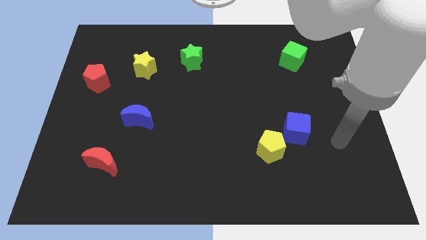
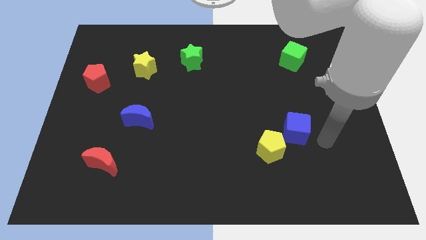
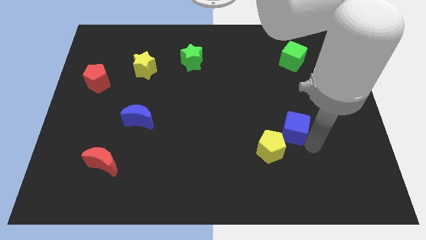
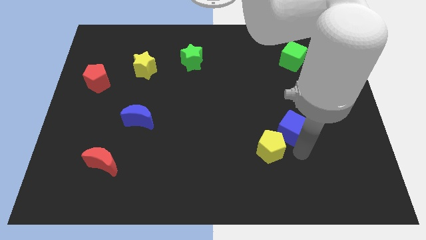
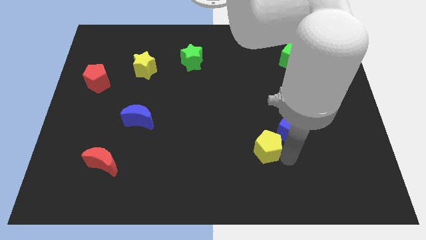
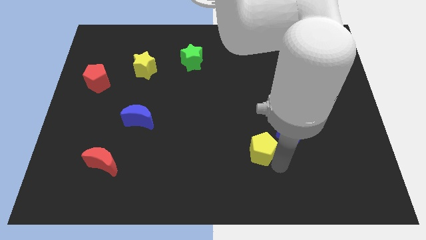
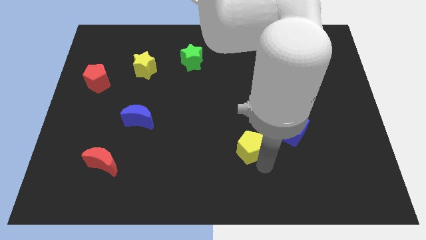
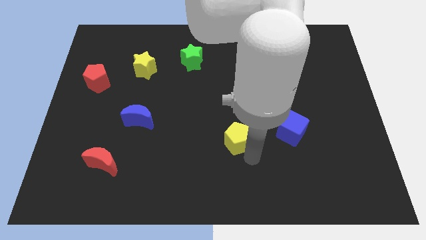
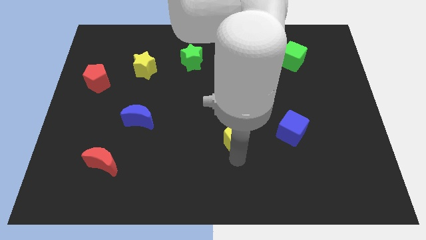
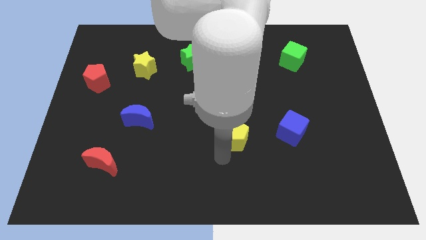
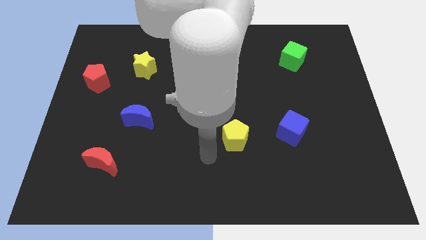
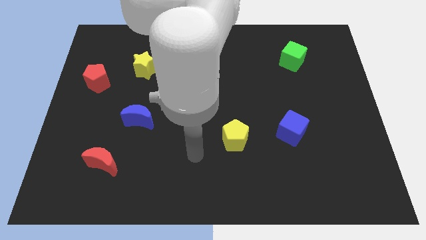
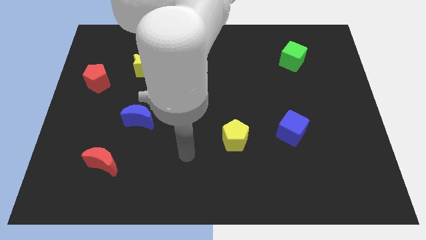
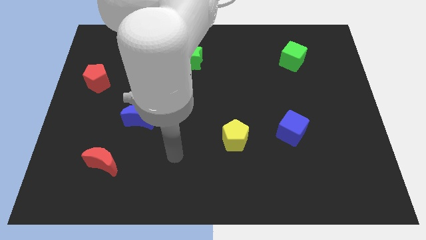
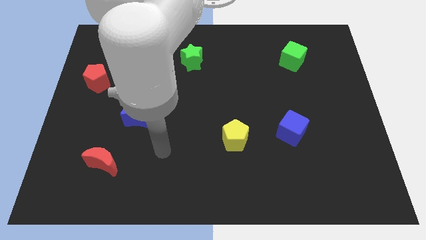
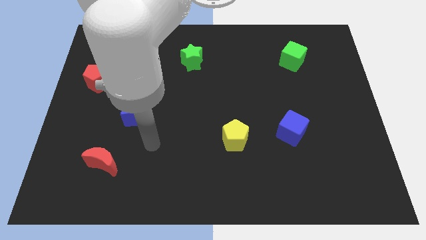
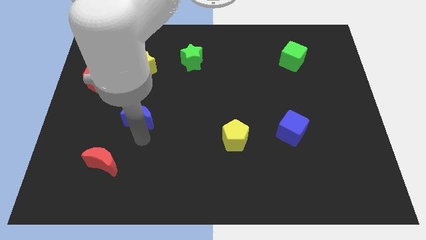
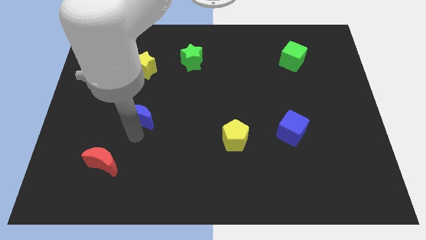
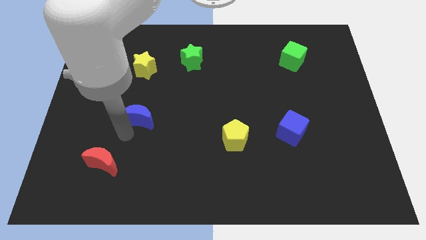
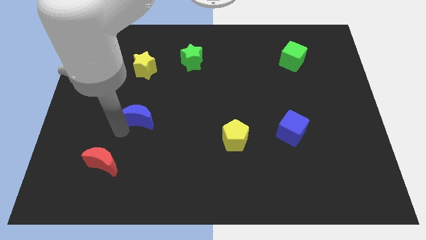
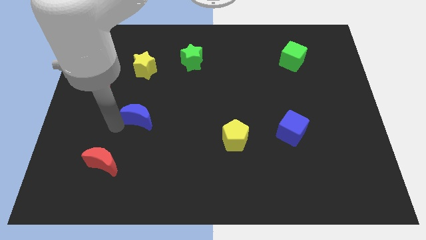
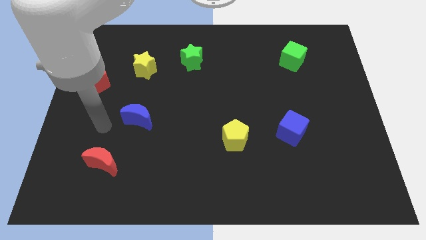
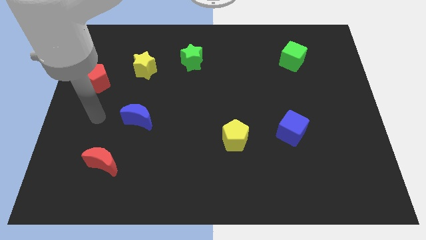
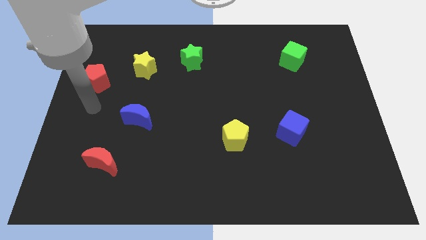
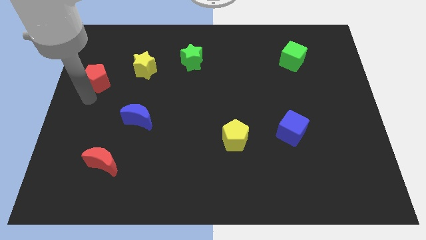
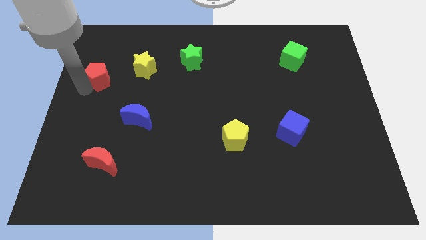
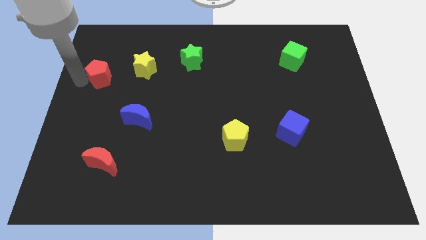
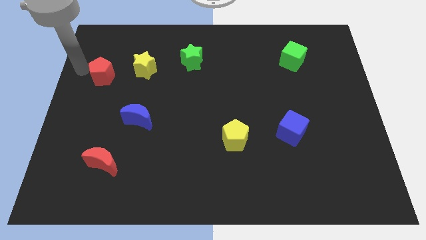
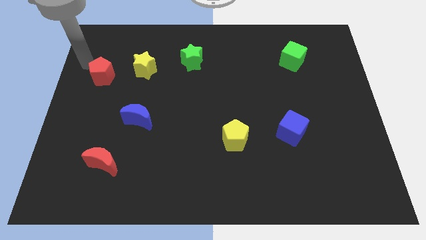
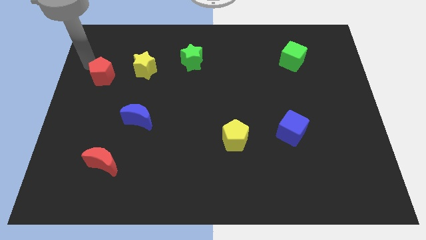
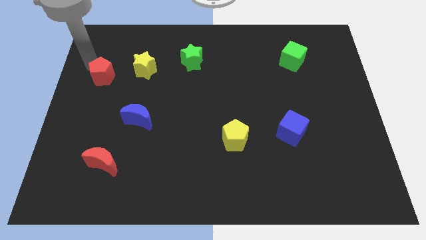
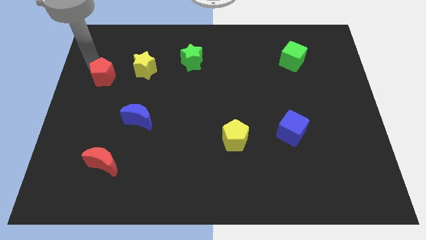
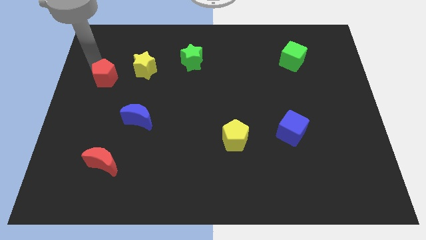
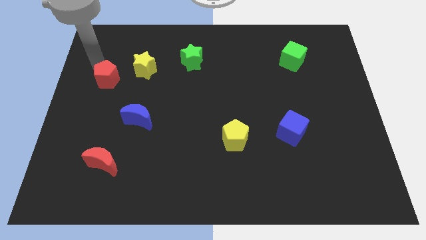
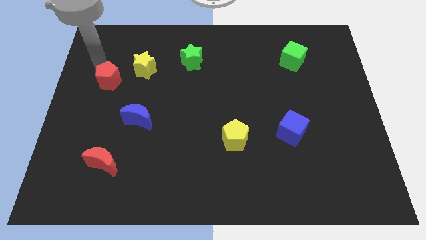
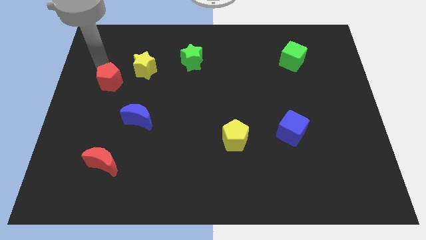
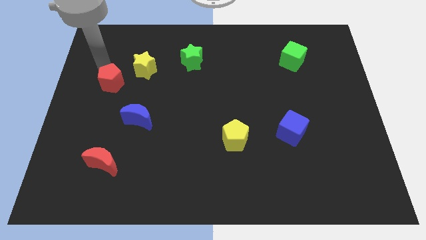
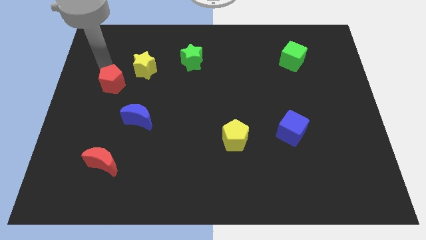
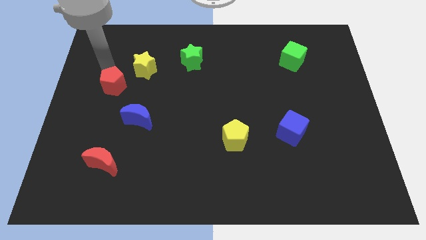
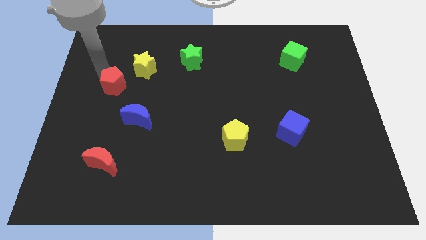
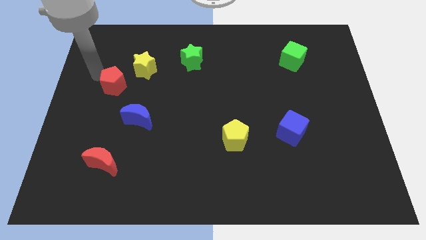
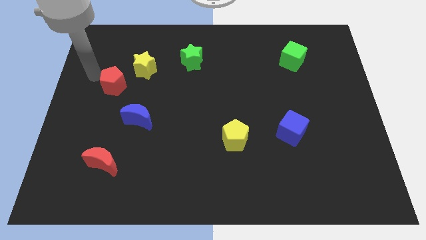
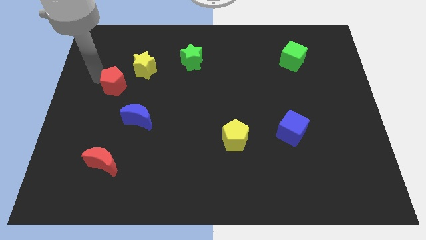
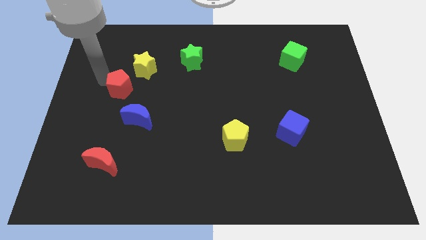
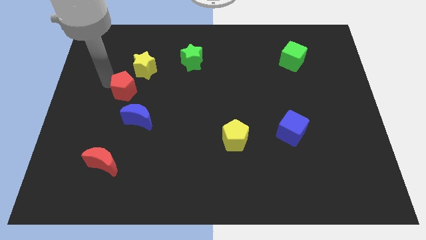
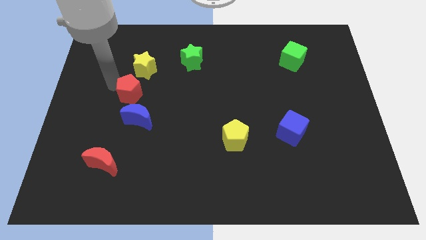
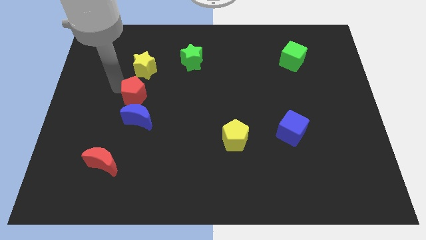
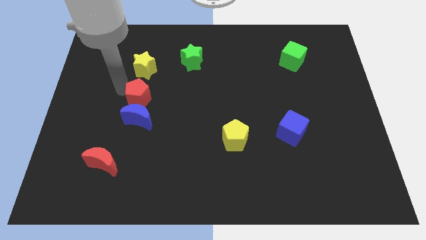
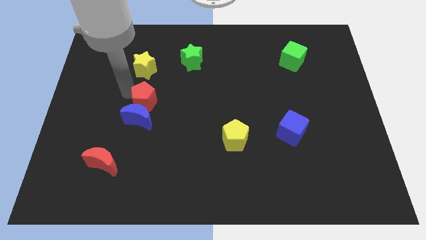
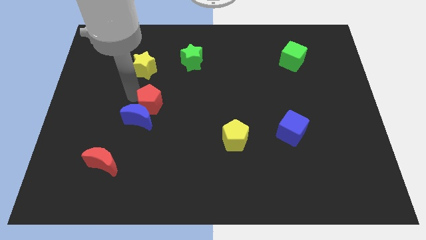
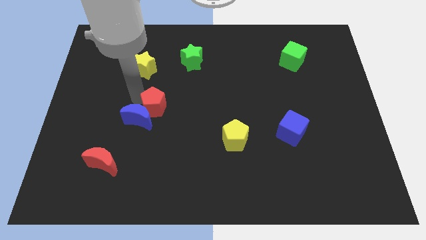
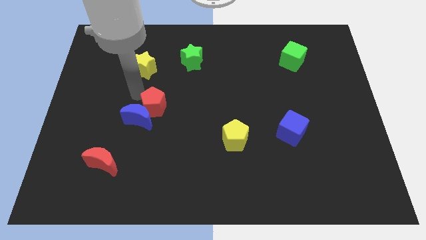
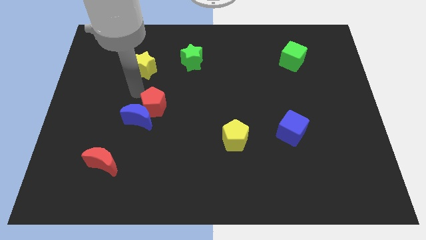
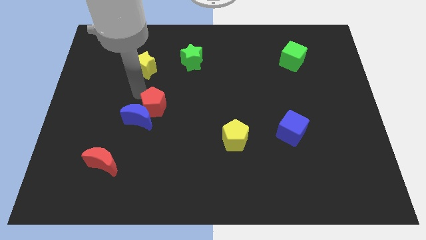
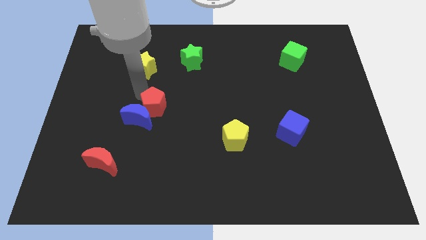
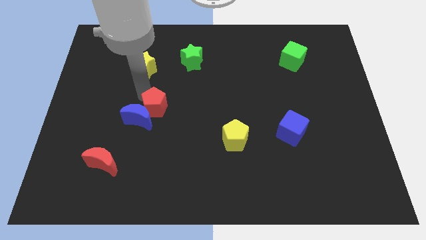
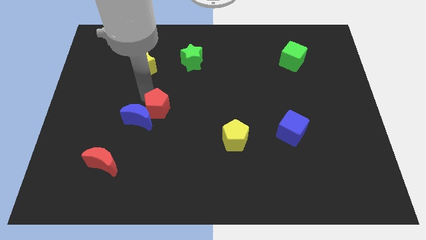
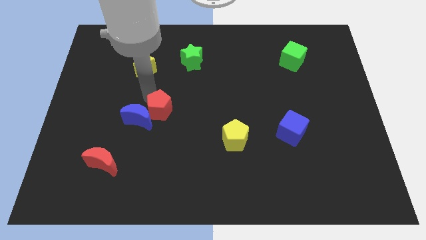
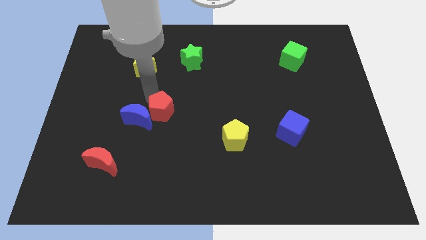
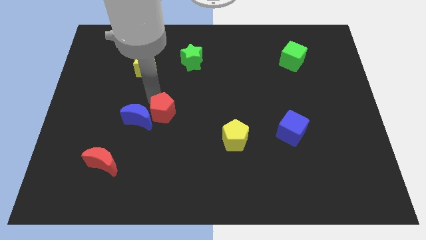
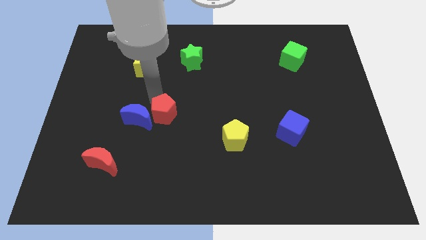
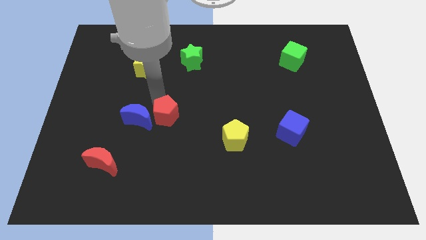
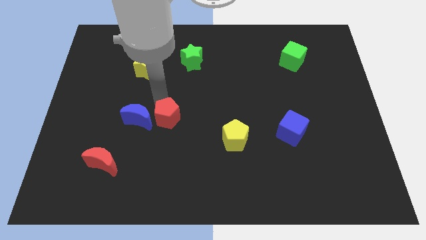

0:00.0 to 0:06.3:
push the red pentagon downwards and right diagonally

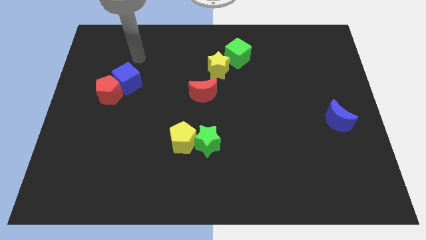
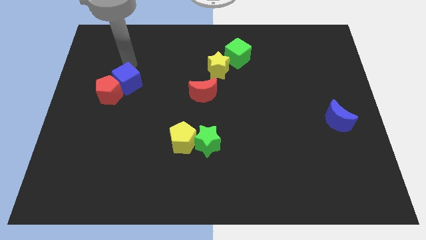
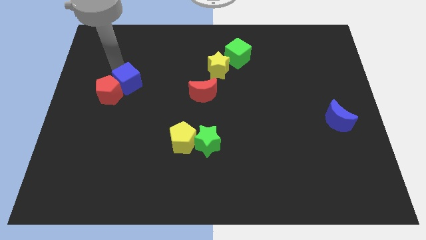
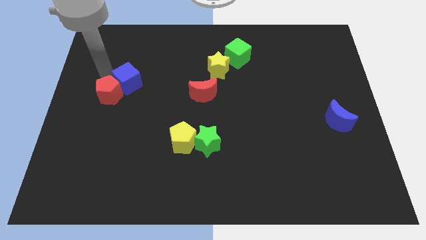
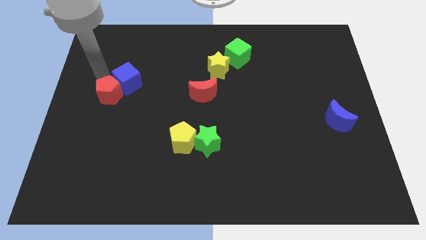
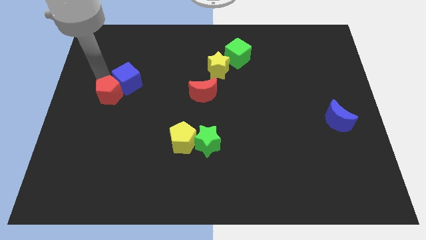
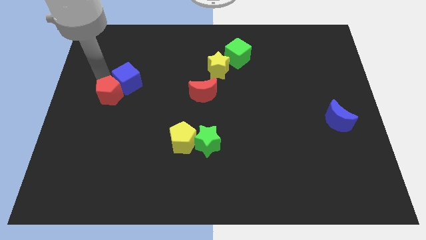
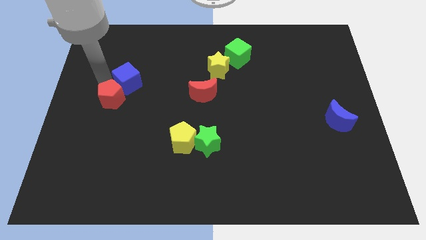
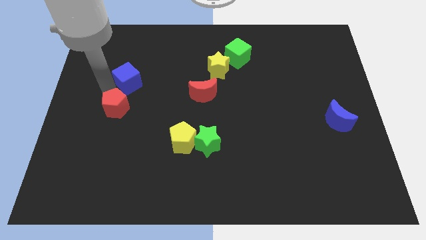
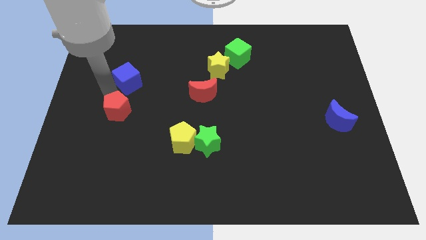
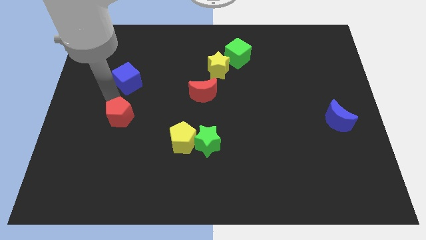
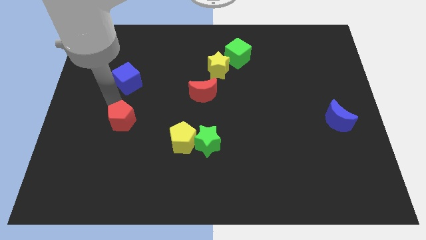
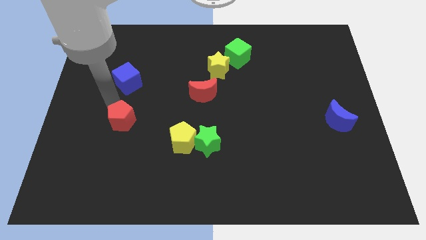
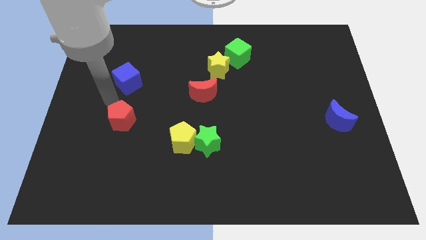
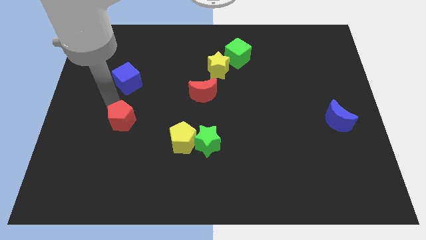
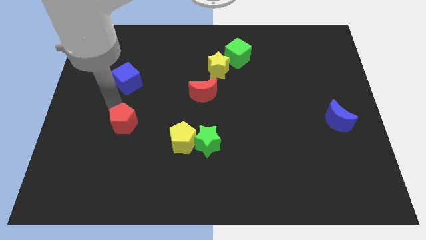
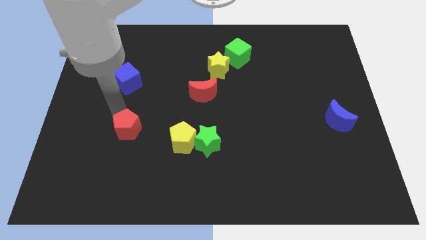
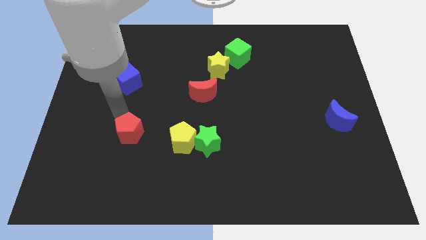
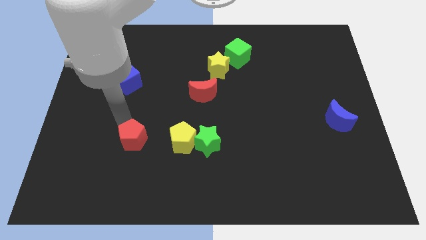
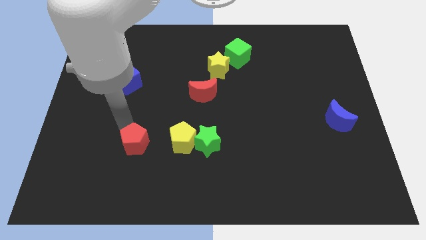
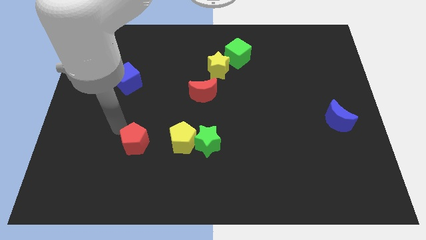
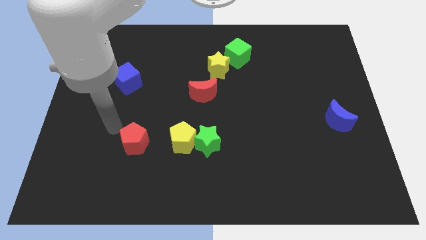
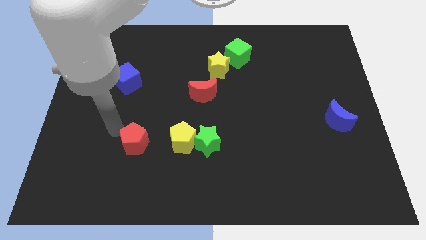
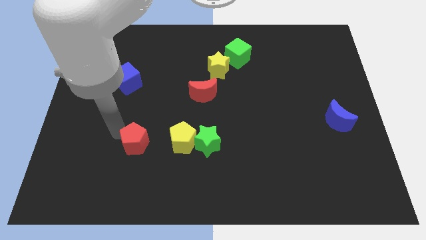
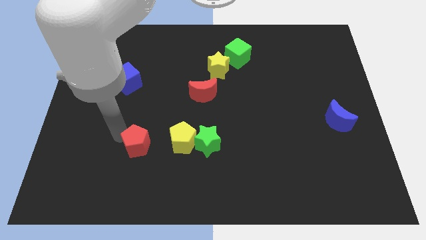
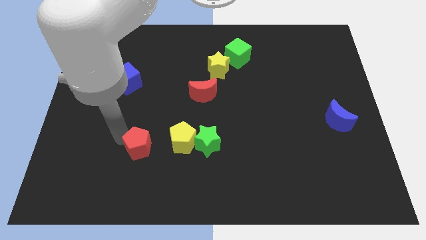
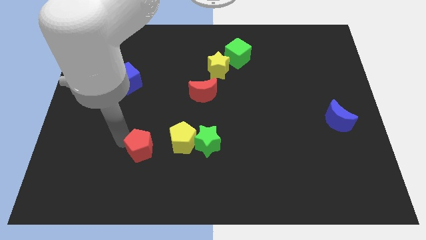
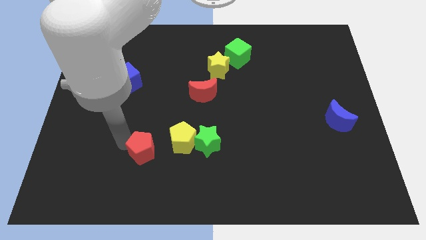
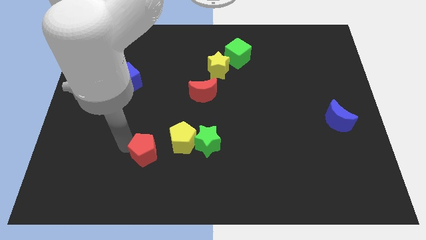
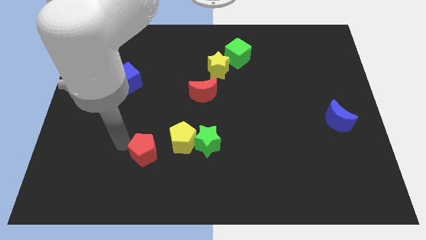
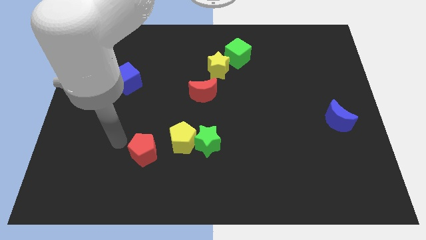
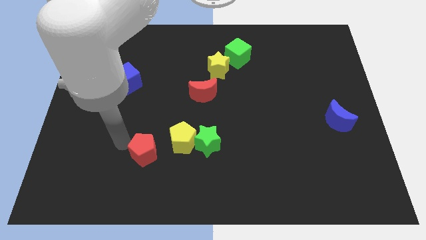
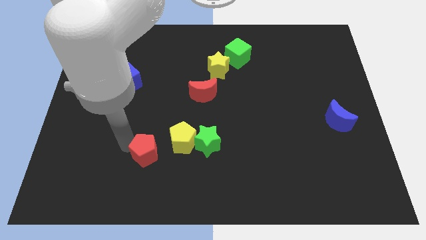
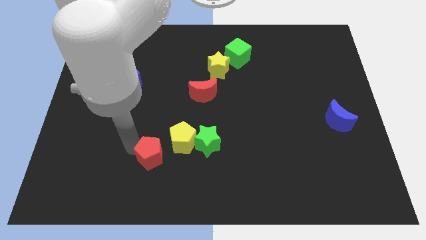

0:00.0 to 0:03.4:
push the red pentagon diagonally down and right
